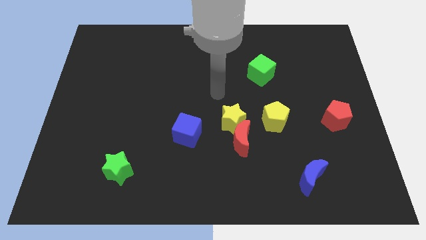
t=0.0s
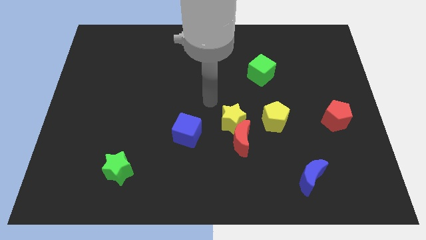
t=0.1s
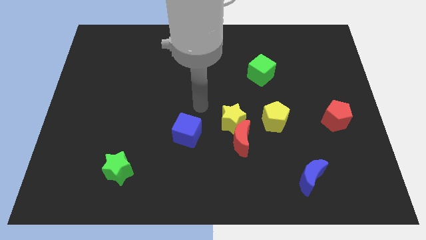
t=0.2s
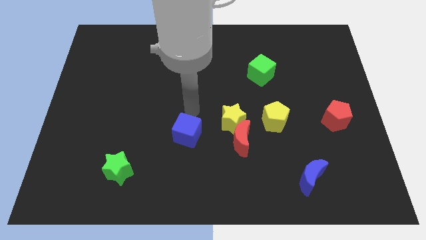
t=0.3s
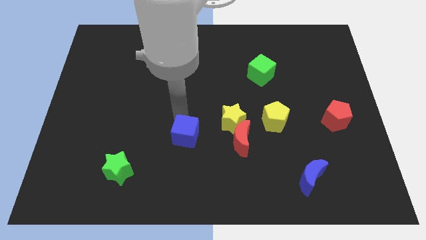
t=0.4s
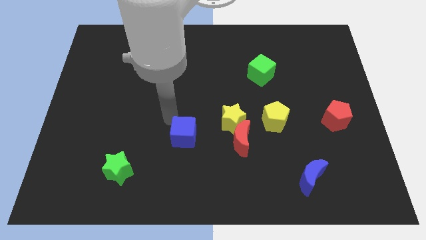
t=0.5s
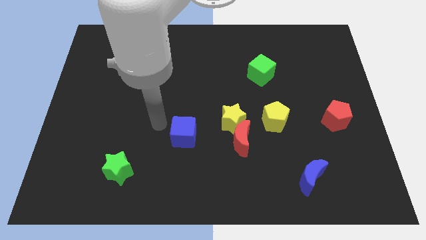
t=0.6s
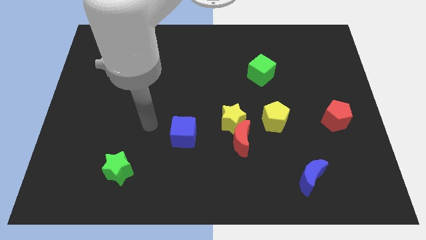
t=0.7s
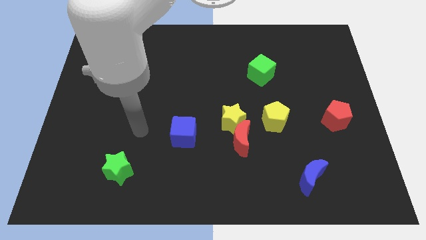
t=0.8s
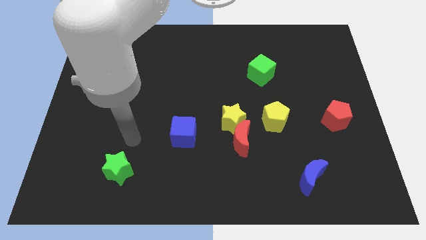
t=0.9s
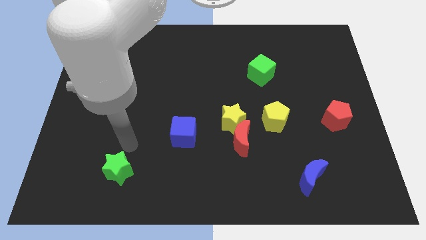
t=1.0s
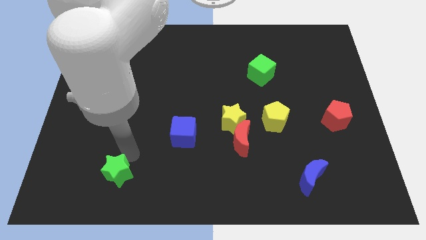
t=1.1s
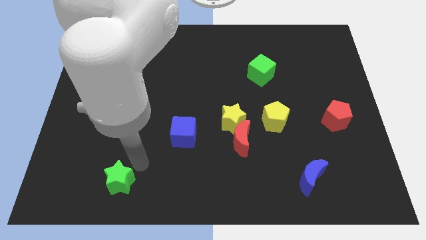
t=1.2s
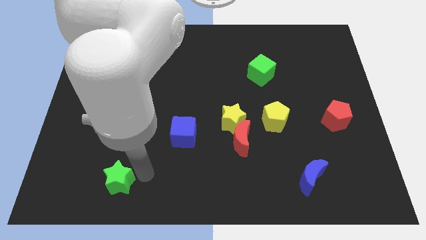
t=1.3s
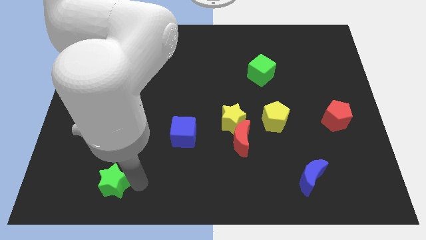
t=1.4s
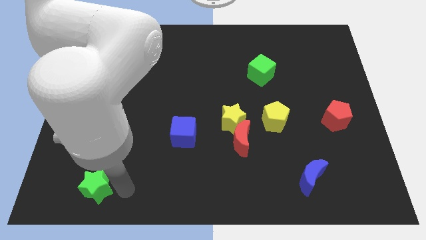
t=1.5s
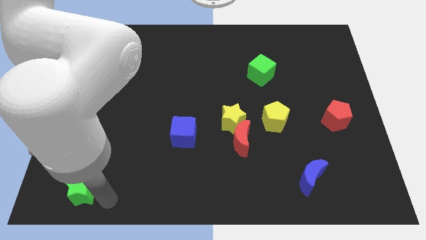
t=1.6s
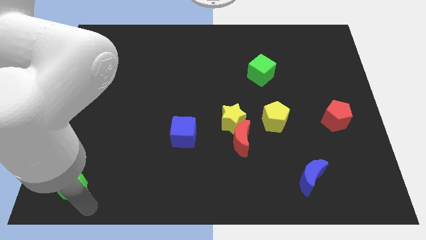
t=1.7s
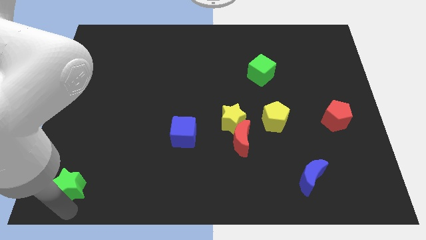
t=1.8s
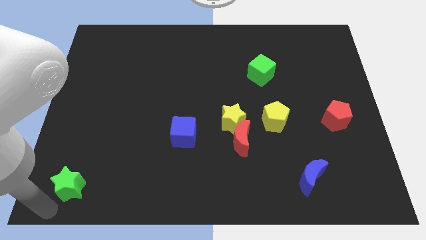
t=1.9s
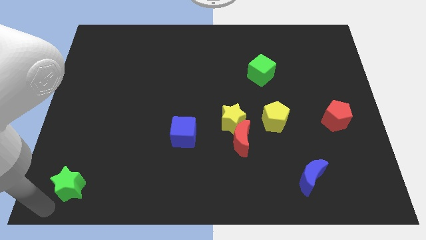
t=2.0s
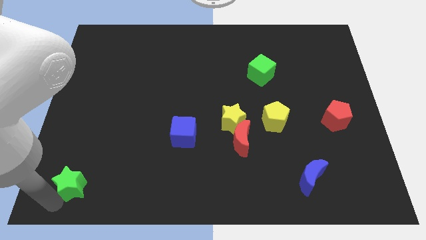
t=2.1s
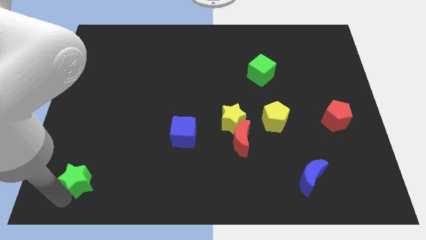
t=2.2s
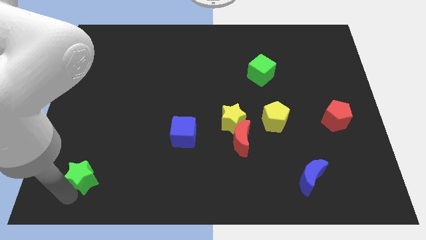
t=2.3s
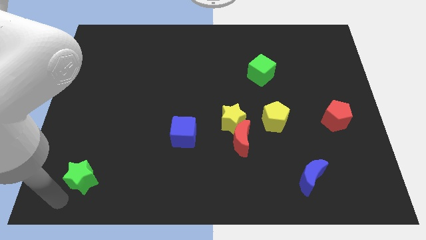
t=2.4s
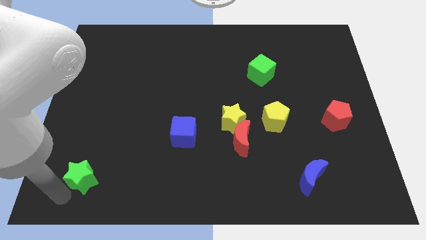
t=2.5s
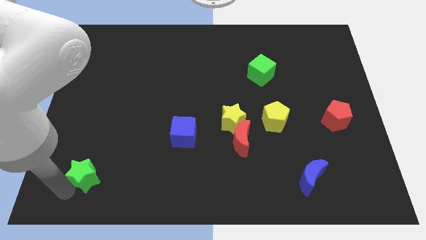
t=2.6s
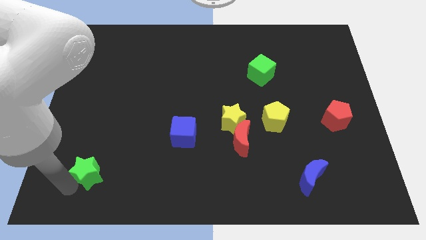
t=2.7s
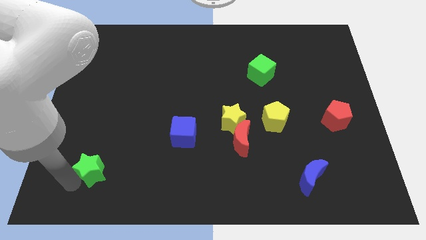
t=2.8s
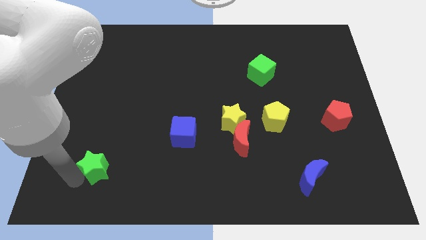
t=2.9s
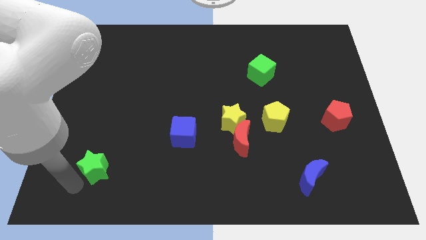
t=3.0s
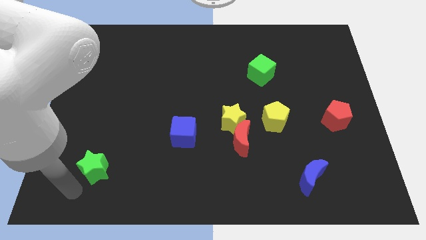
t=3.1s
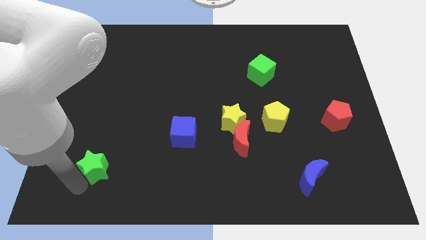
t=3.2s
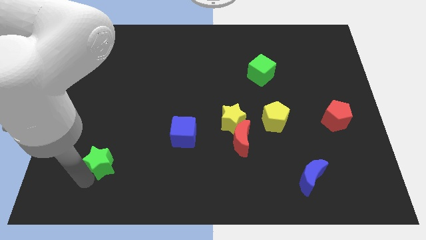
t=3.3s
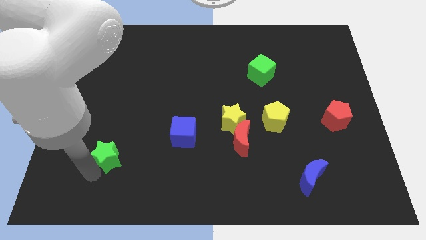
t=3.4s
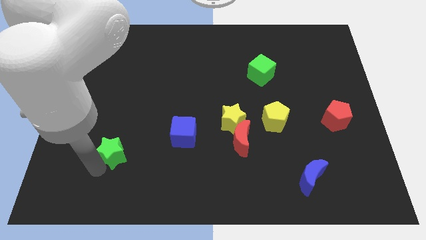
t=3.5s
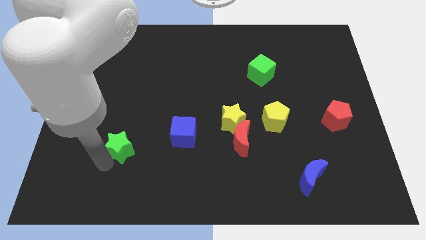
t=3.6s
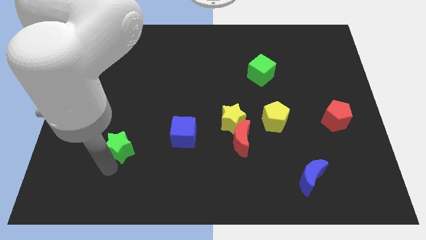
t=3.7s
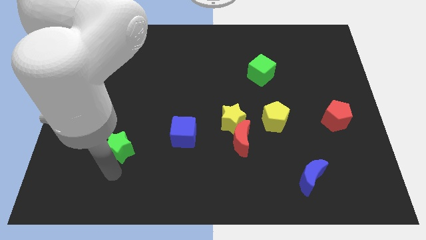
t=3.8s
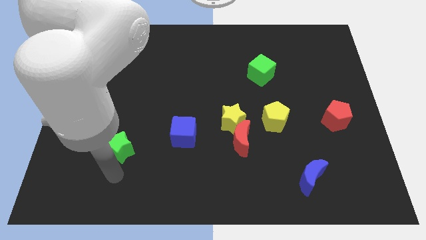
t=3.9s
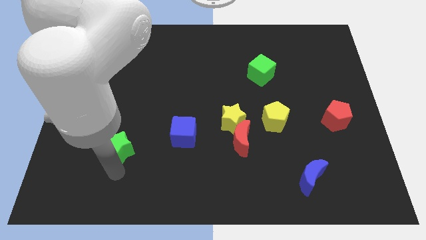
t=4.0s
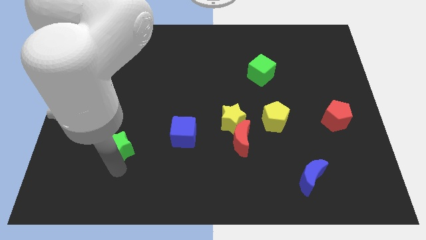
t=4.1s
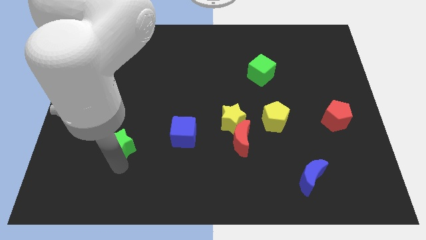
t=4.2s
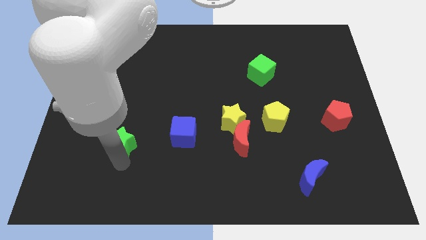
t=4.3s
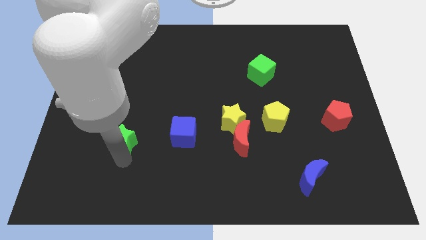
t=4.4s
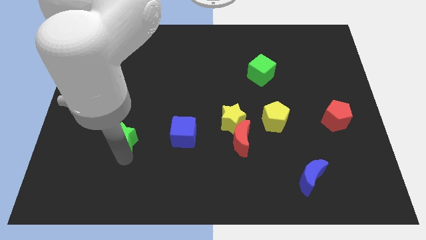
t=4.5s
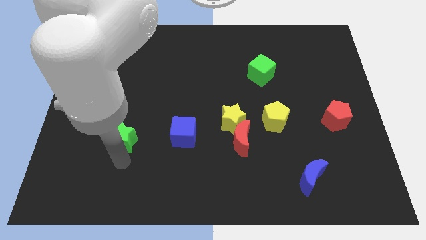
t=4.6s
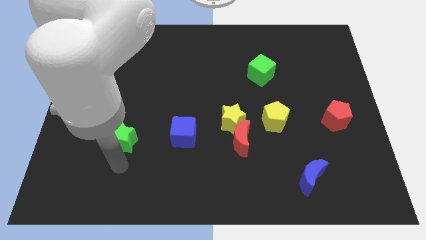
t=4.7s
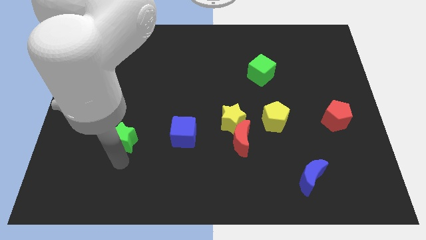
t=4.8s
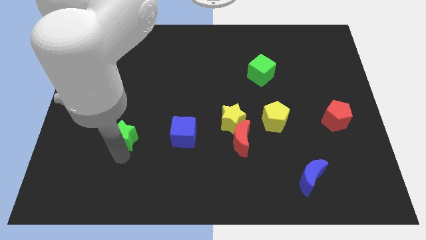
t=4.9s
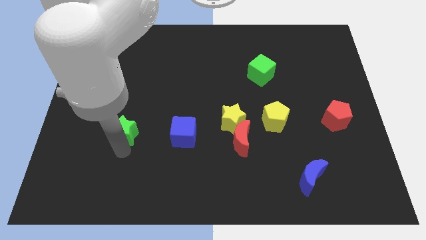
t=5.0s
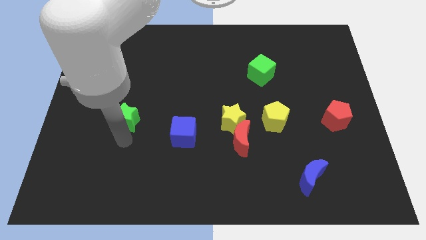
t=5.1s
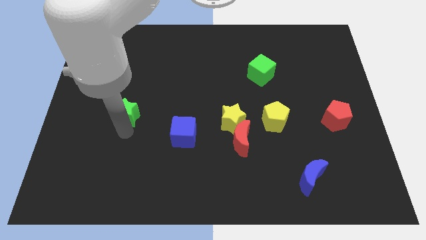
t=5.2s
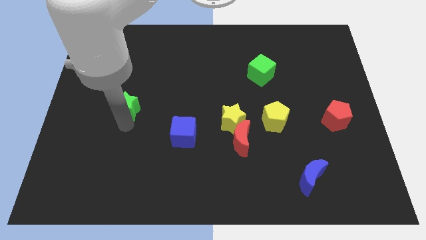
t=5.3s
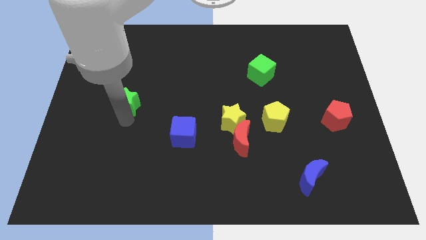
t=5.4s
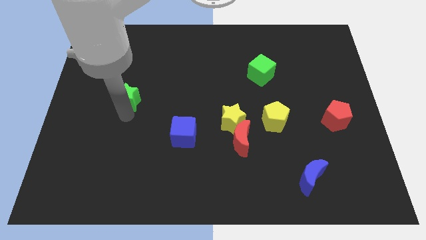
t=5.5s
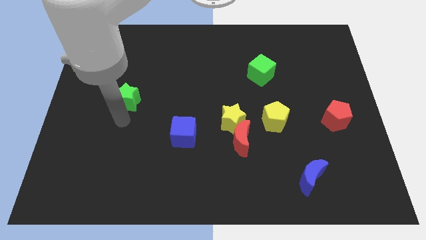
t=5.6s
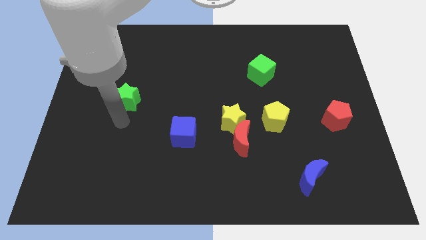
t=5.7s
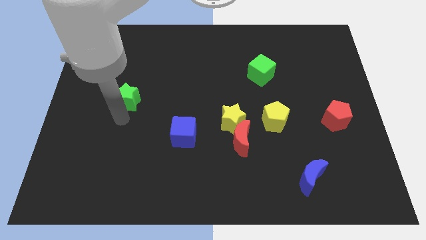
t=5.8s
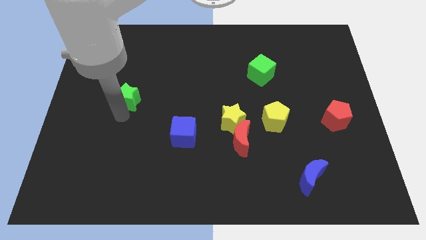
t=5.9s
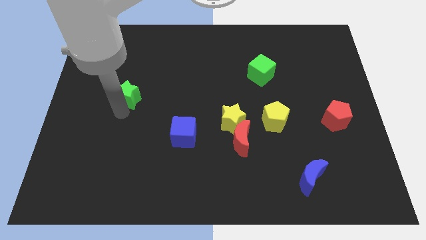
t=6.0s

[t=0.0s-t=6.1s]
slide the green star upwards

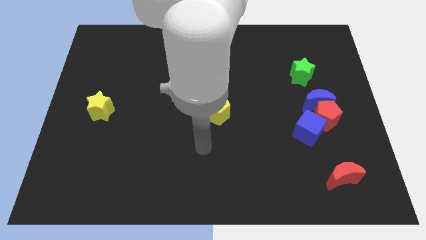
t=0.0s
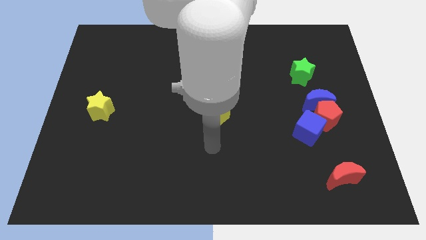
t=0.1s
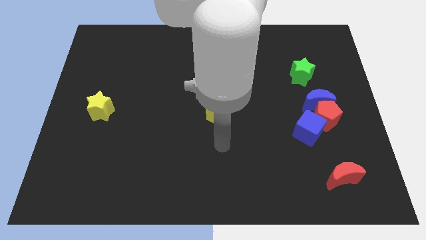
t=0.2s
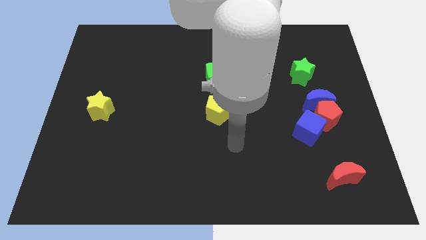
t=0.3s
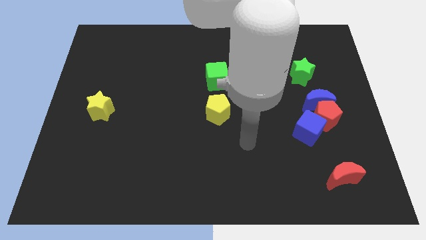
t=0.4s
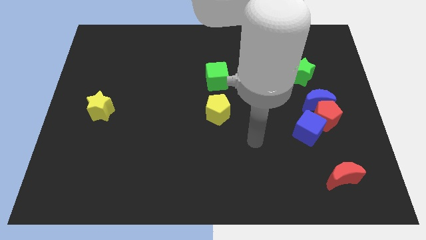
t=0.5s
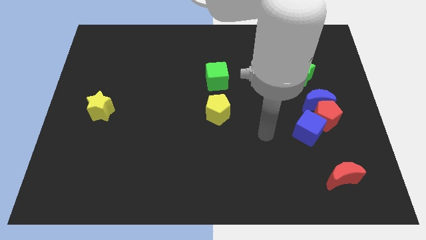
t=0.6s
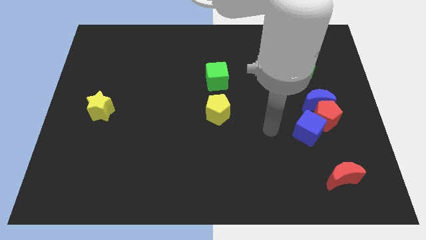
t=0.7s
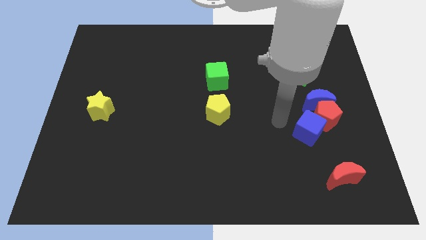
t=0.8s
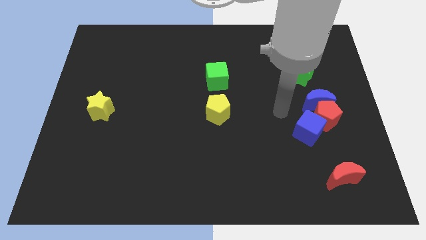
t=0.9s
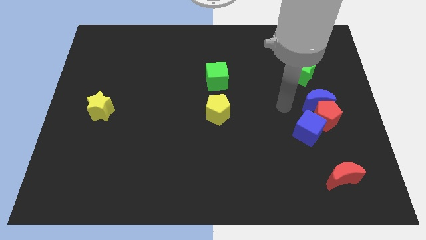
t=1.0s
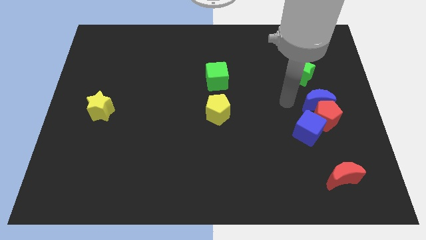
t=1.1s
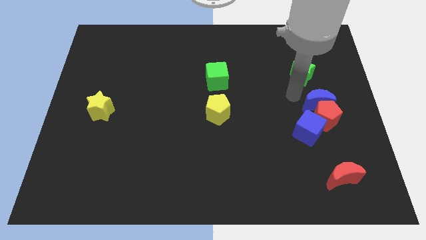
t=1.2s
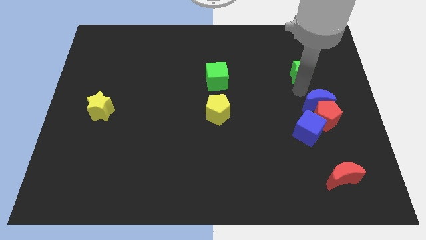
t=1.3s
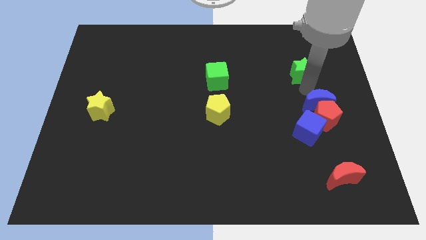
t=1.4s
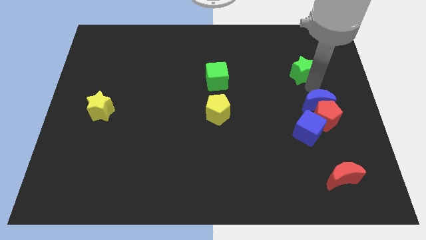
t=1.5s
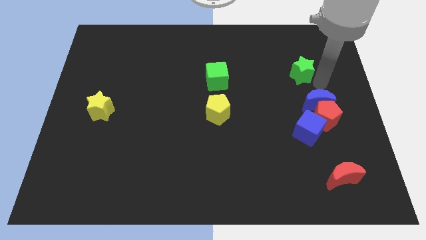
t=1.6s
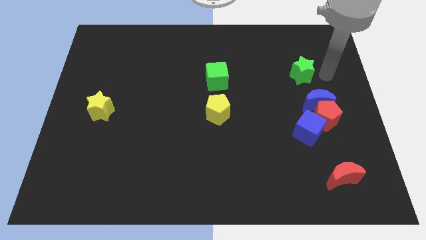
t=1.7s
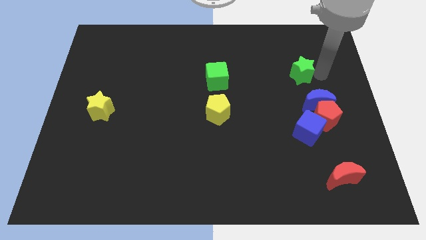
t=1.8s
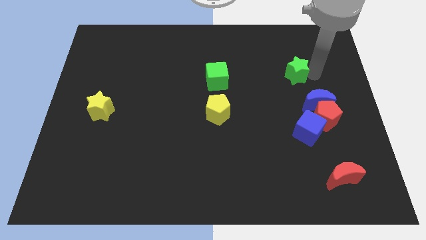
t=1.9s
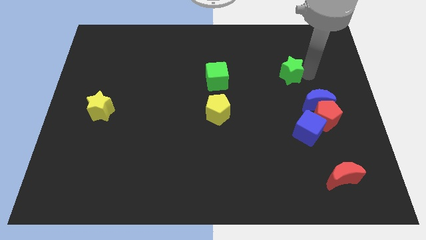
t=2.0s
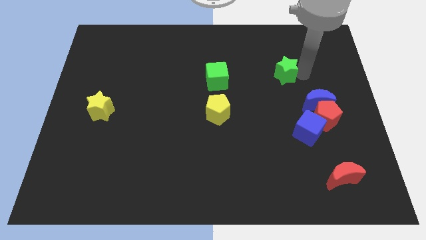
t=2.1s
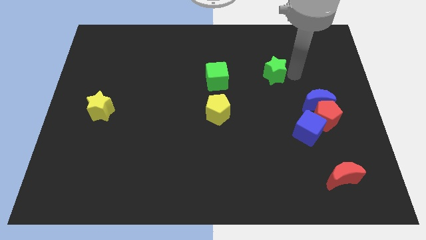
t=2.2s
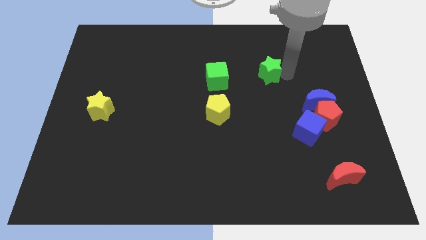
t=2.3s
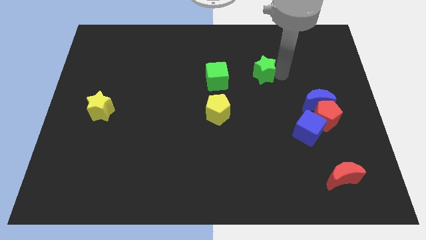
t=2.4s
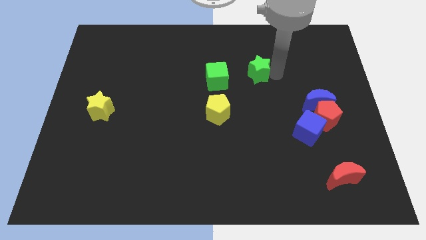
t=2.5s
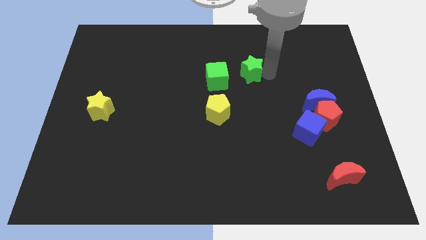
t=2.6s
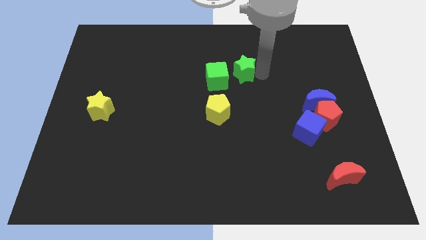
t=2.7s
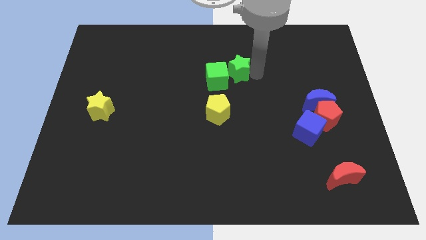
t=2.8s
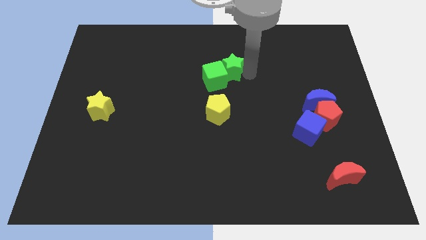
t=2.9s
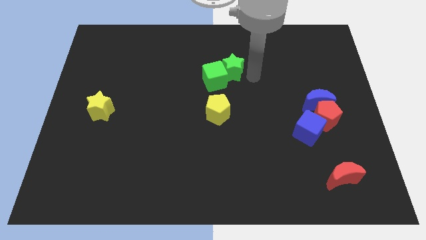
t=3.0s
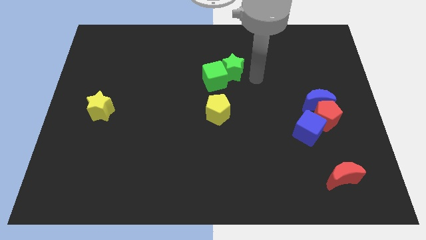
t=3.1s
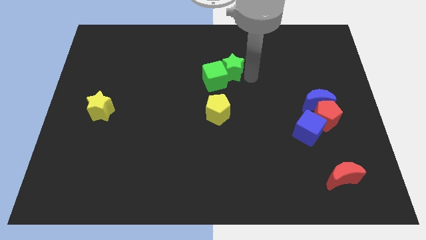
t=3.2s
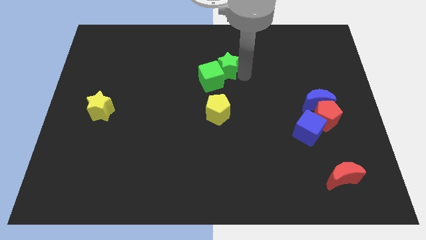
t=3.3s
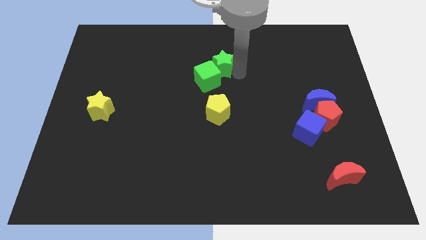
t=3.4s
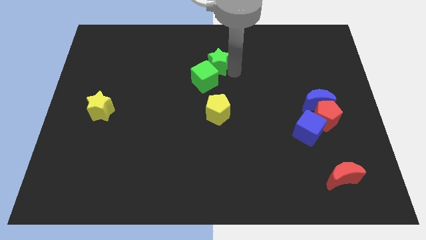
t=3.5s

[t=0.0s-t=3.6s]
push the green star to the left
